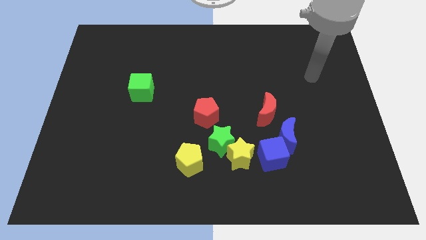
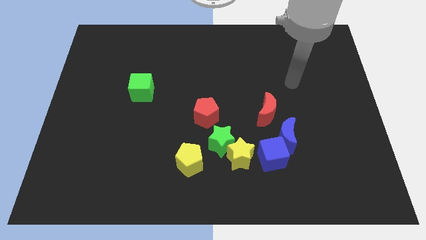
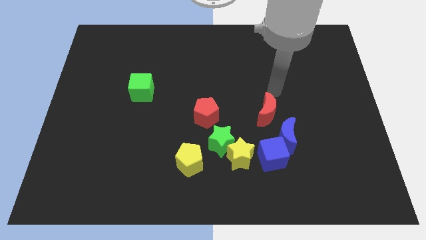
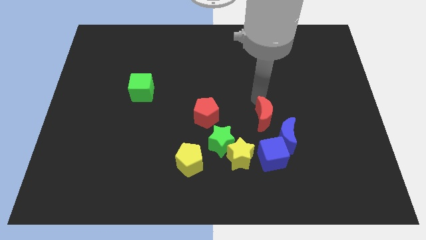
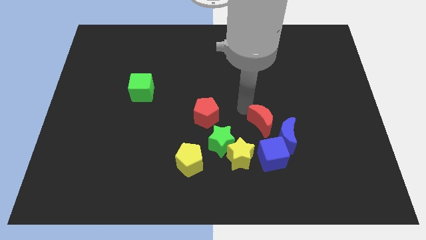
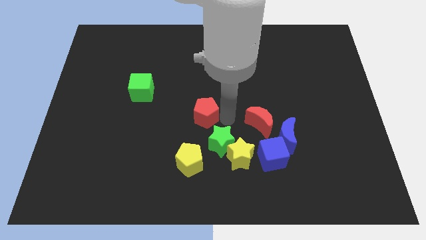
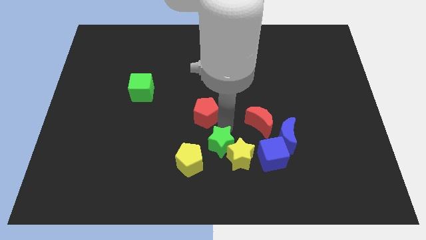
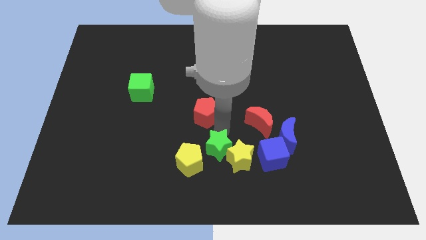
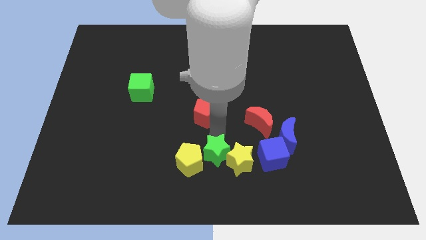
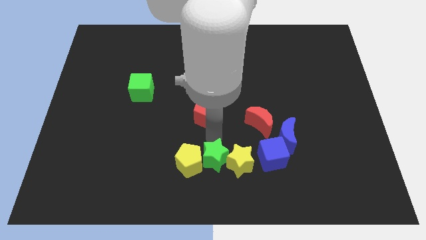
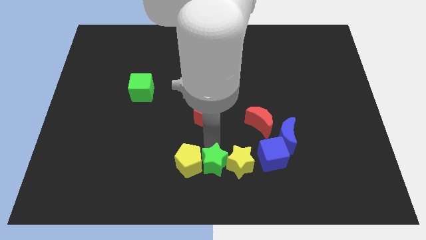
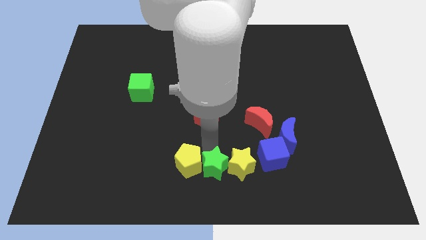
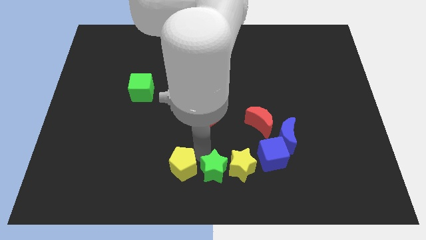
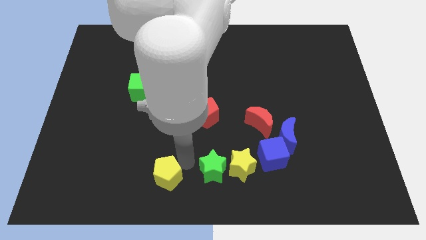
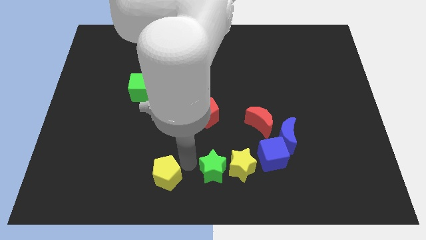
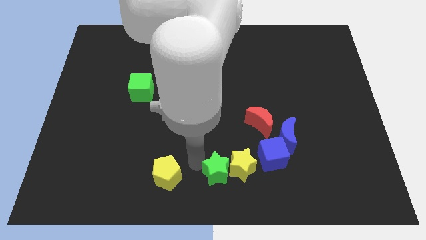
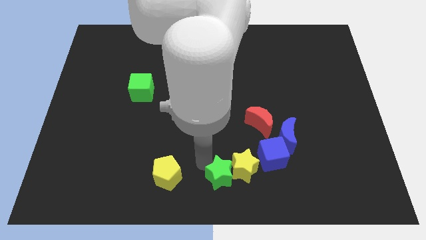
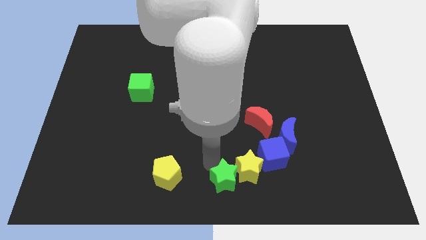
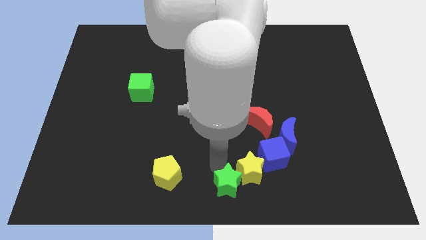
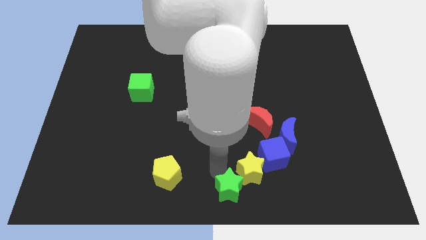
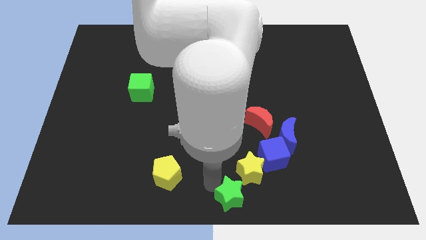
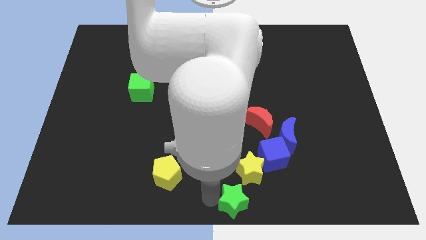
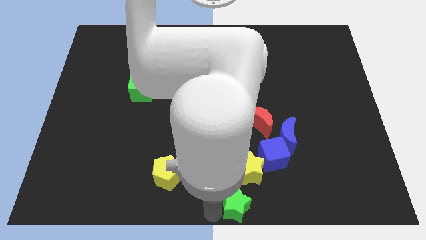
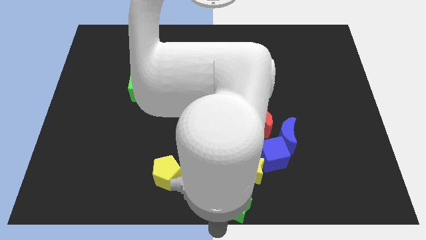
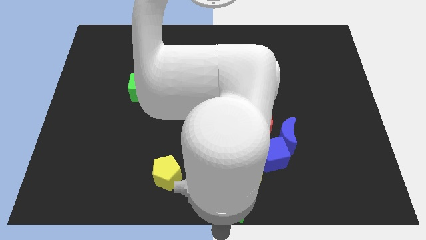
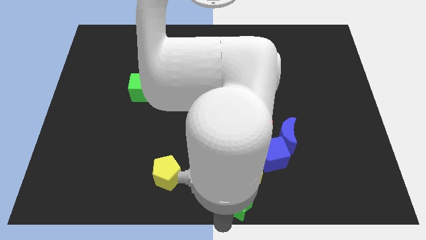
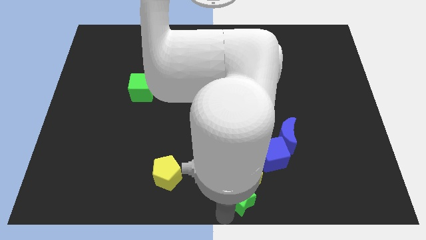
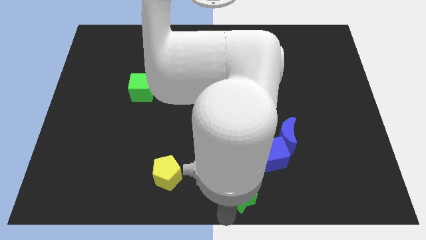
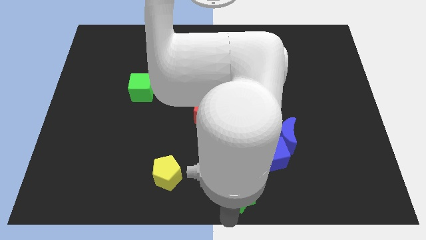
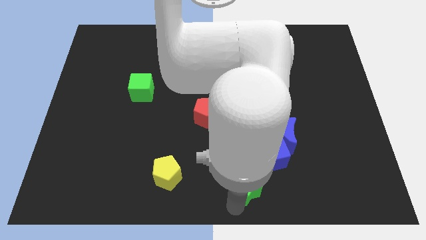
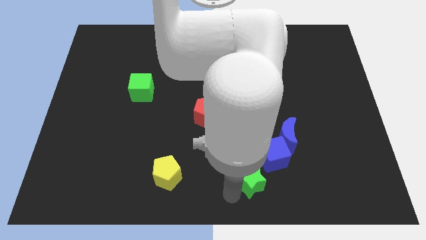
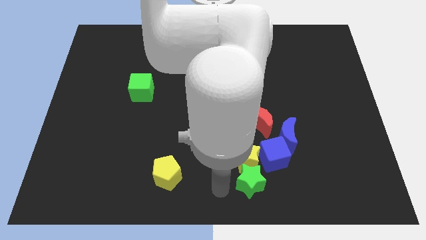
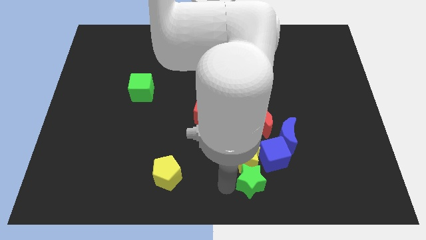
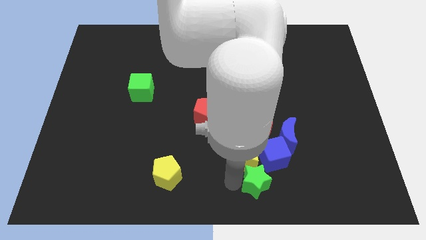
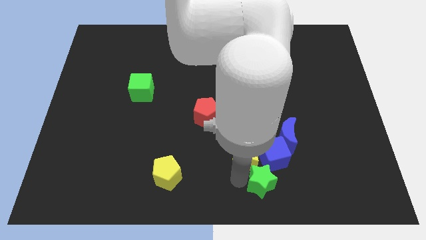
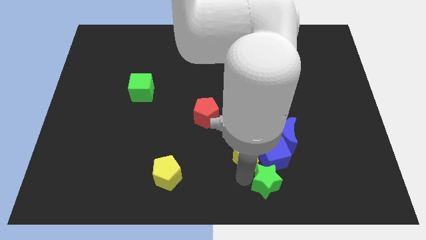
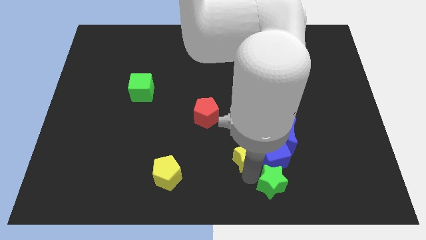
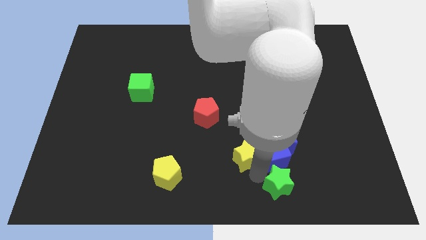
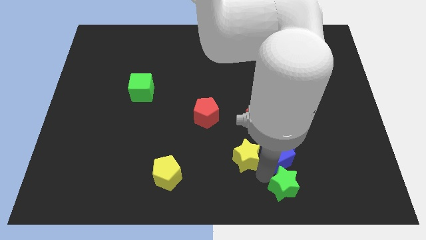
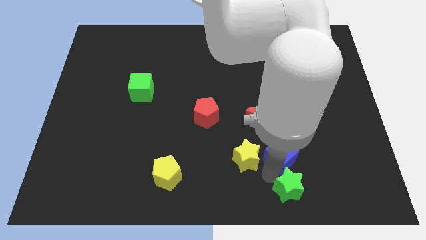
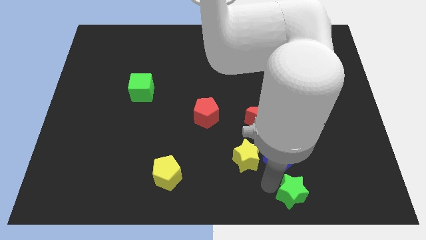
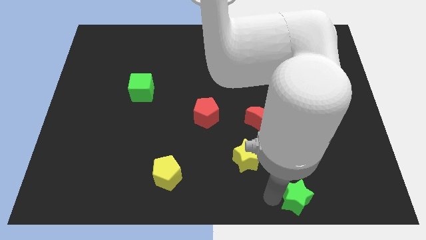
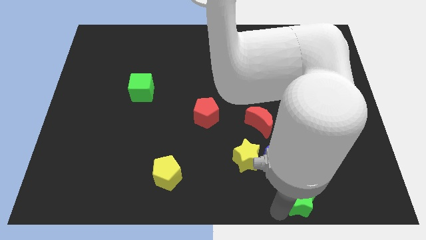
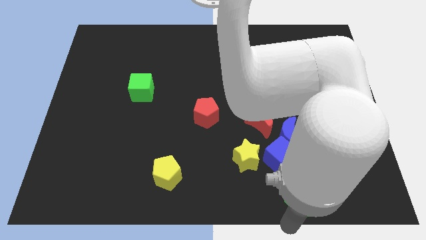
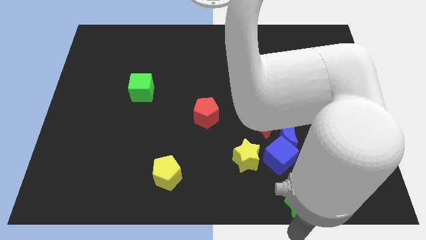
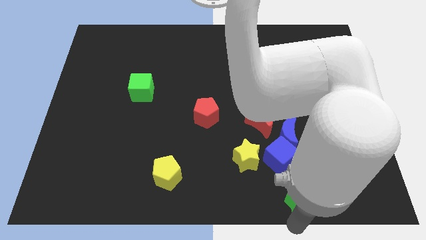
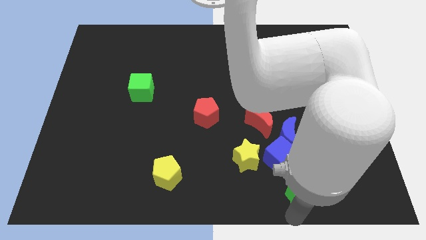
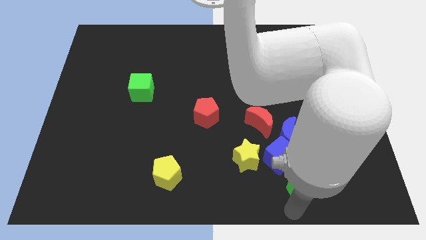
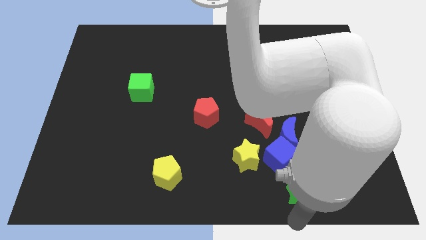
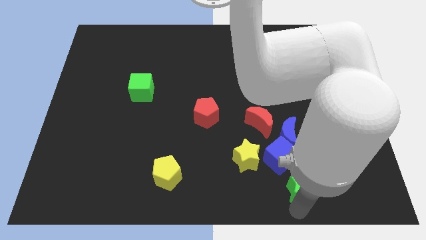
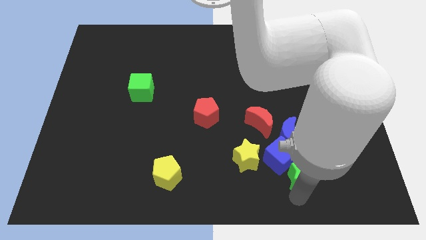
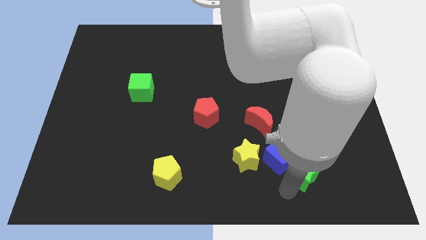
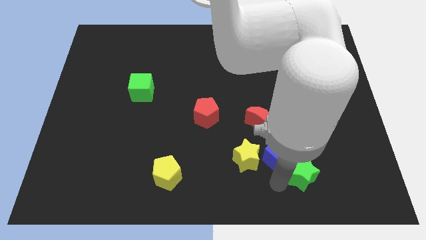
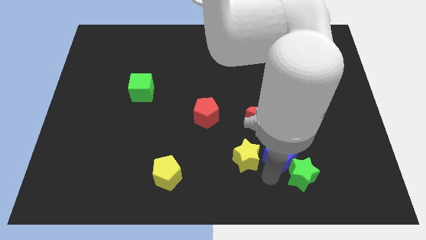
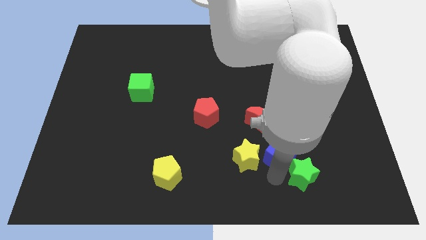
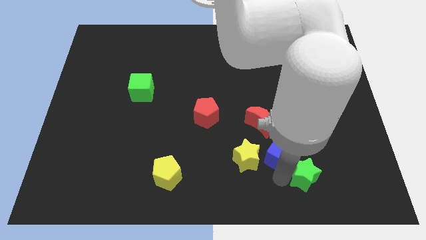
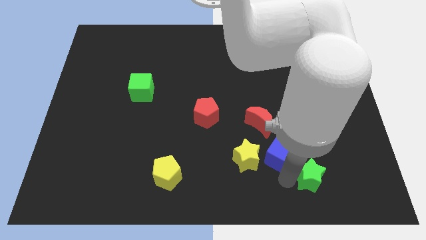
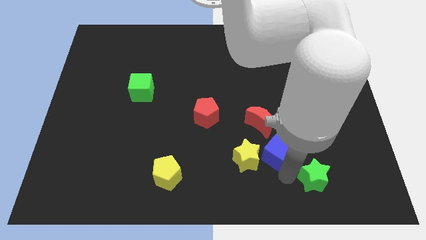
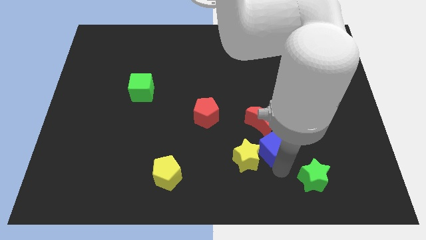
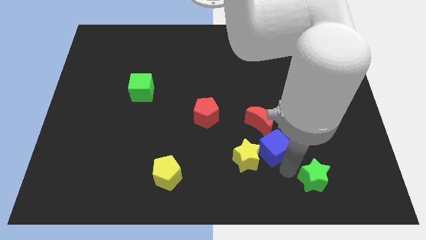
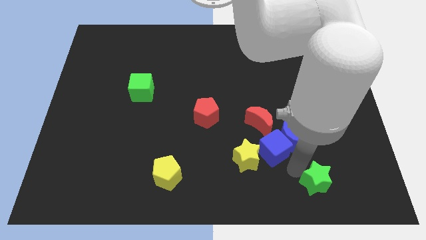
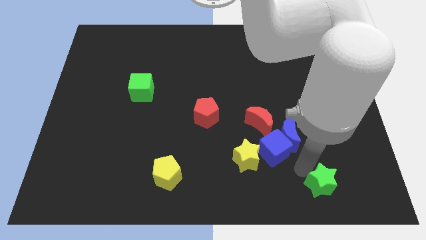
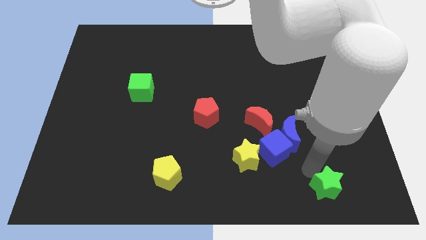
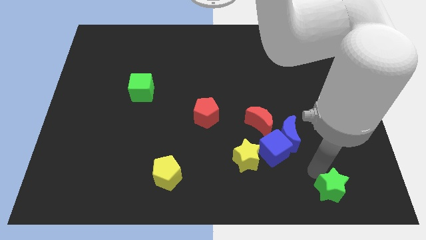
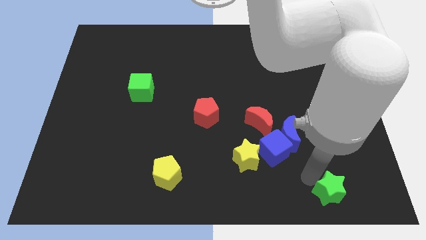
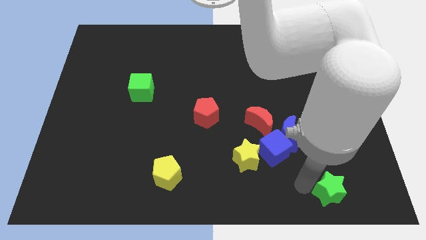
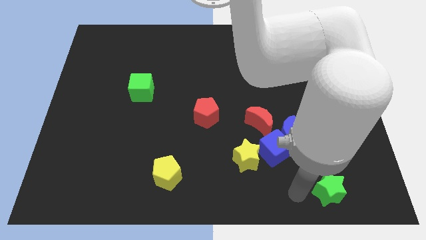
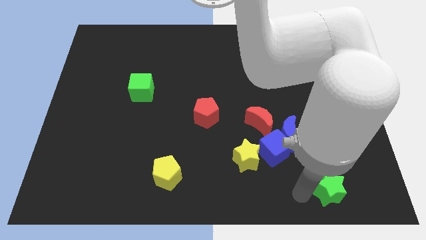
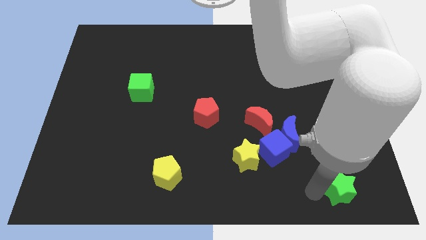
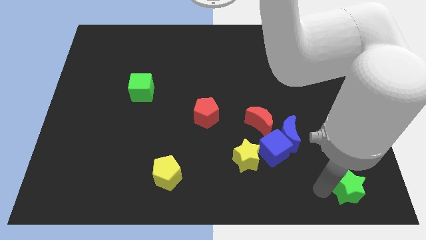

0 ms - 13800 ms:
slide the green star to the lower right corner
